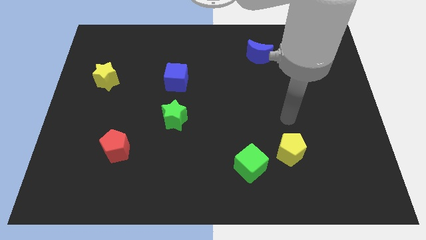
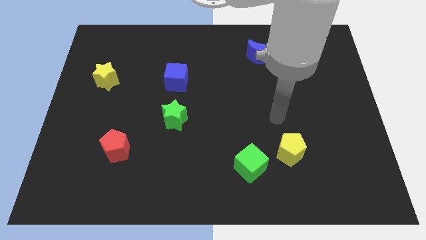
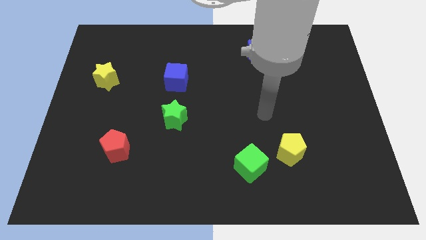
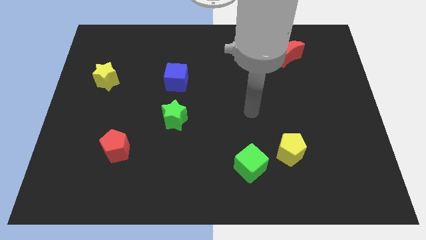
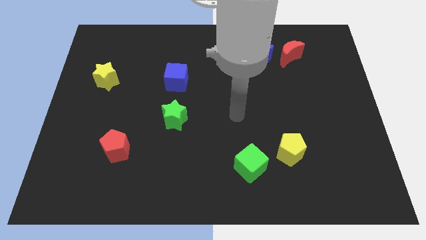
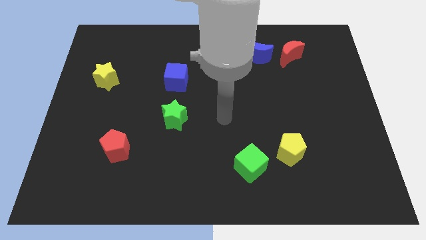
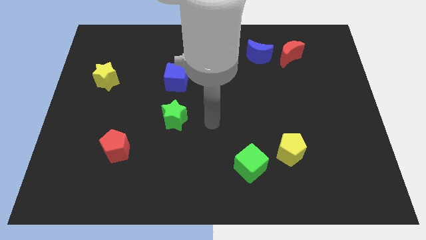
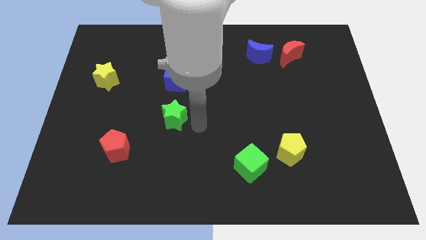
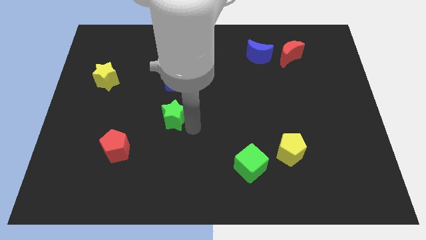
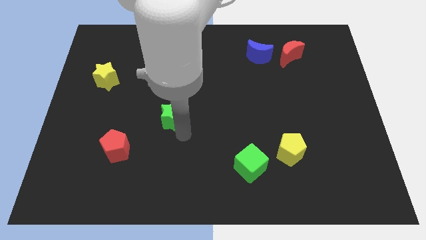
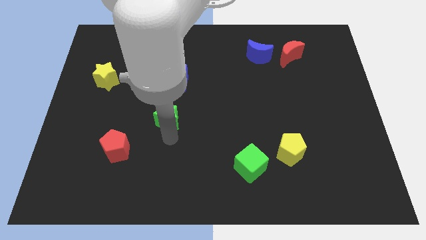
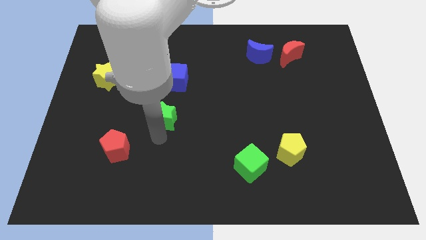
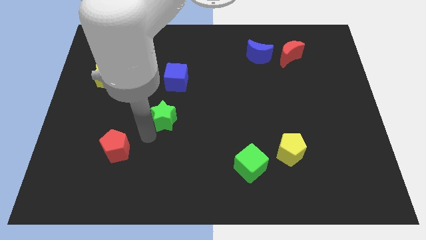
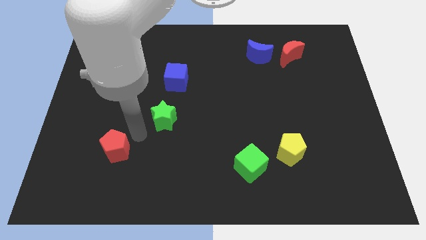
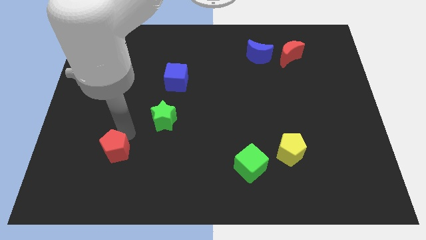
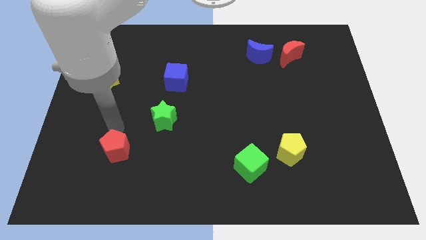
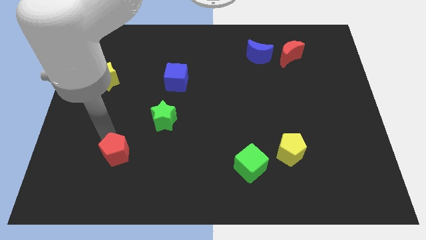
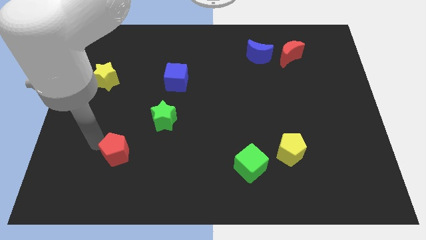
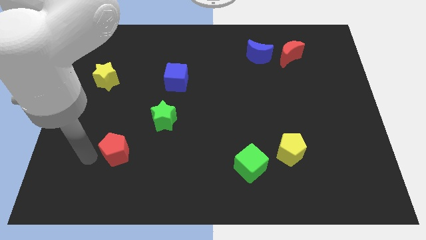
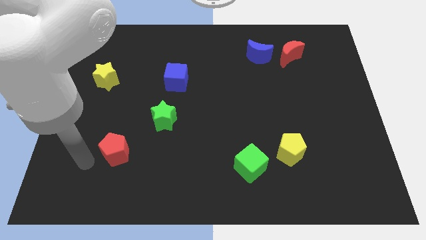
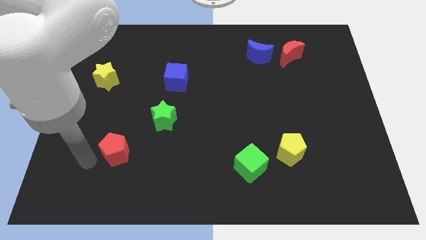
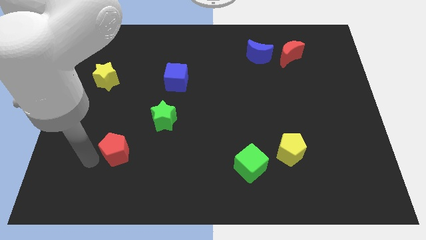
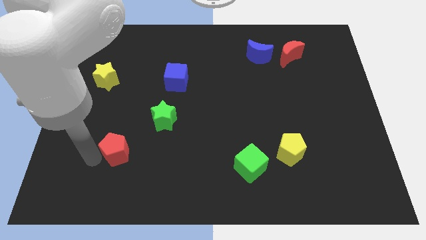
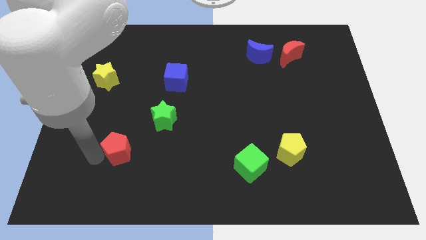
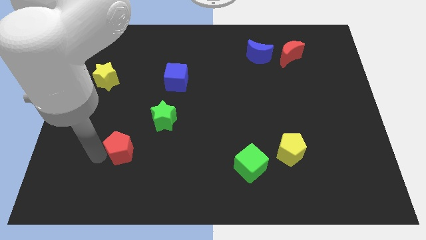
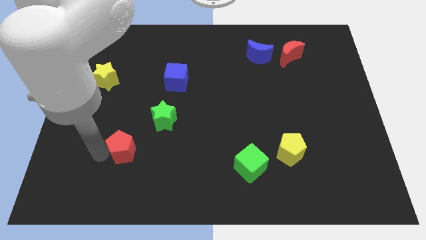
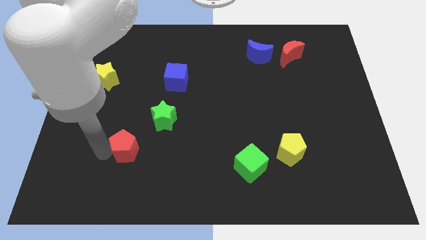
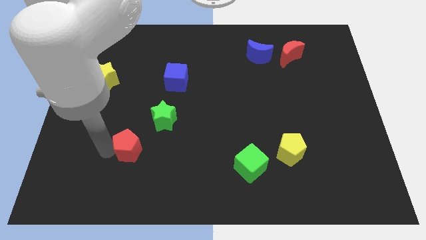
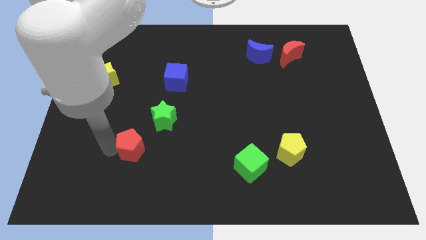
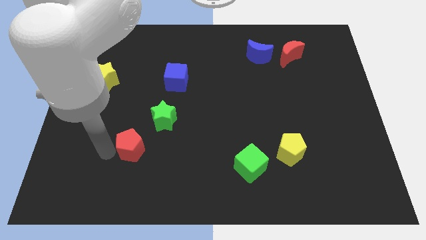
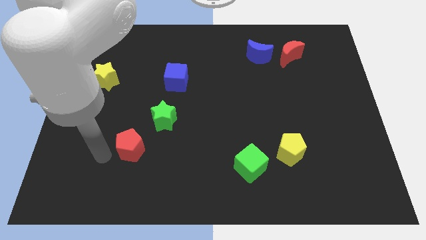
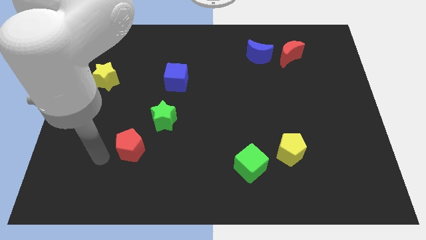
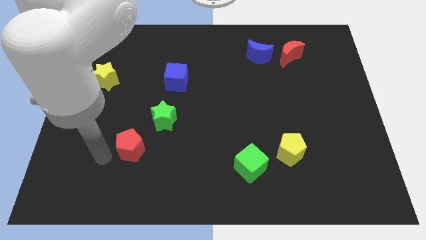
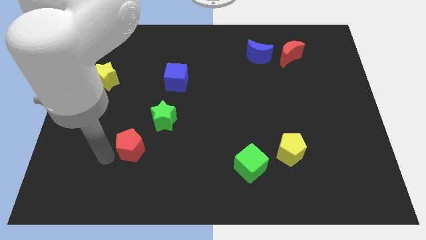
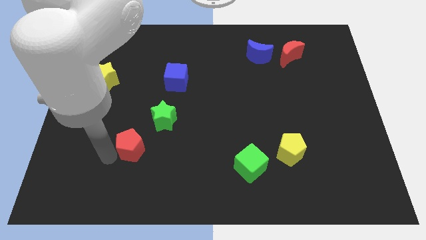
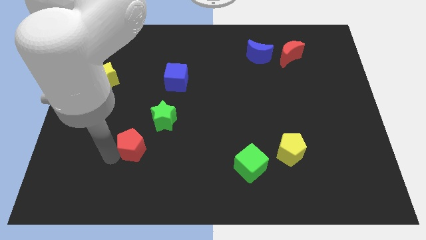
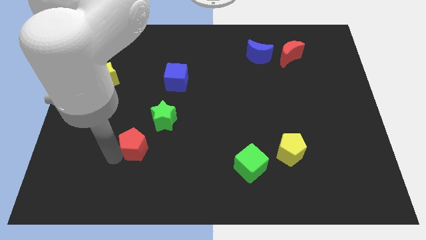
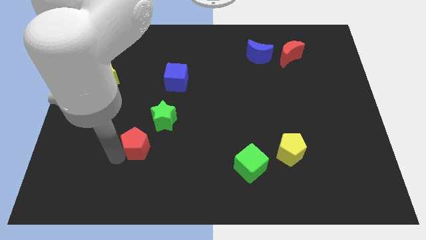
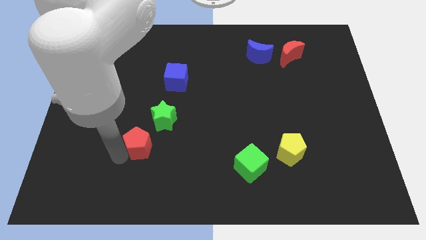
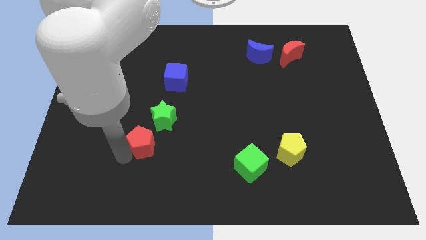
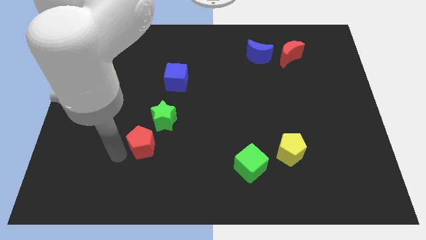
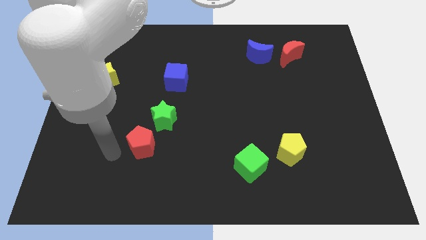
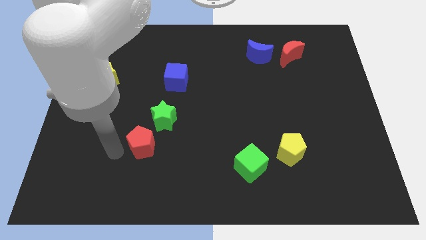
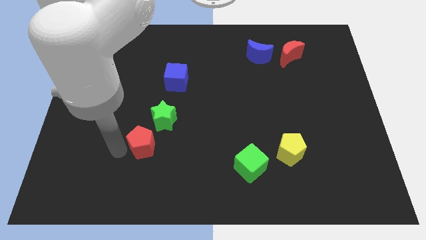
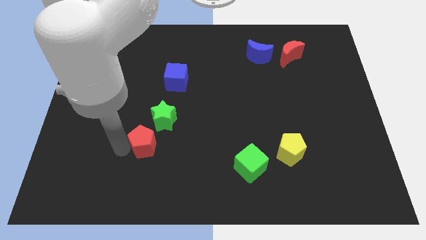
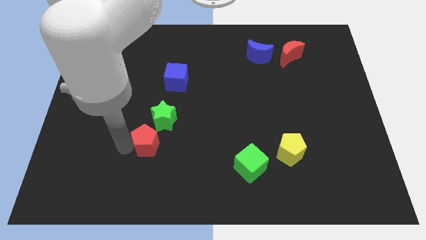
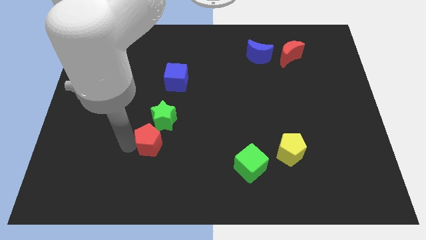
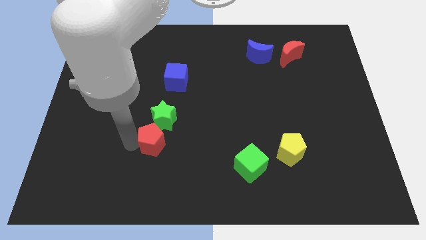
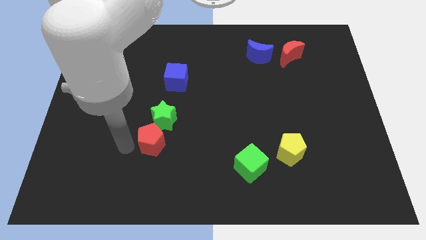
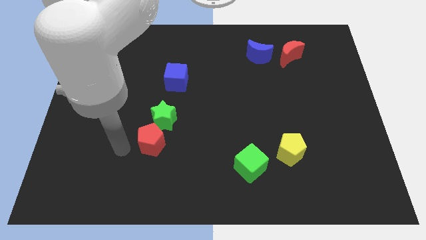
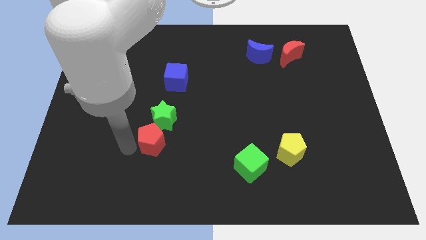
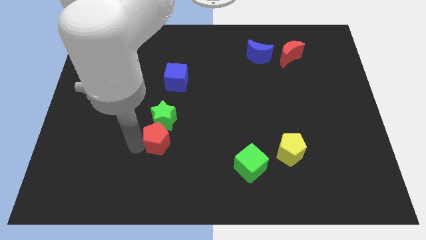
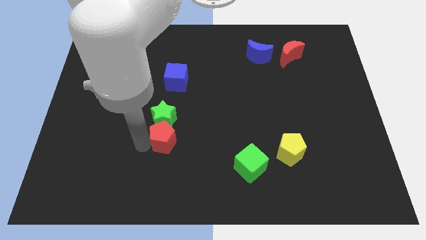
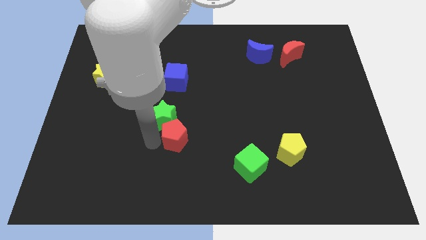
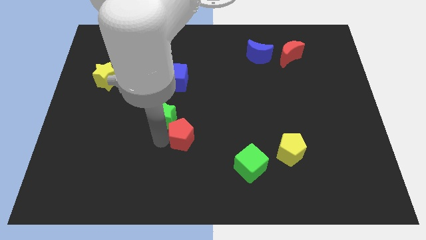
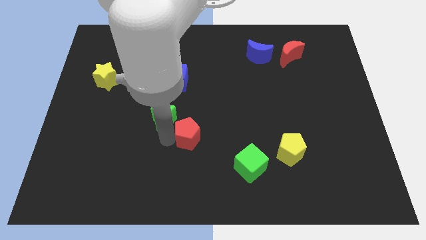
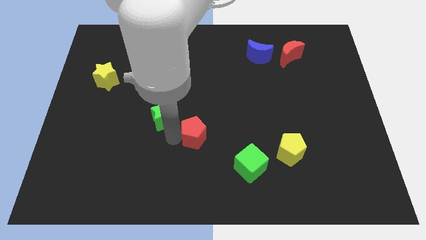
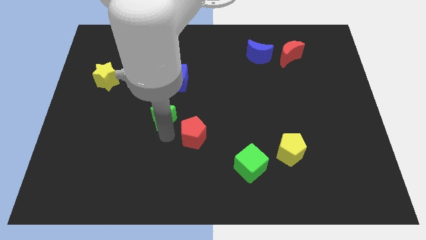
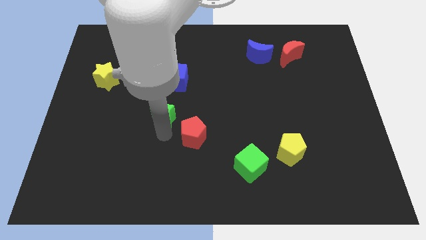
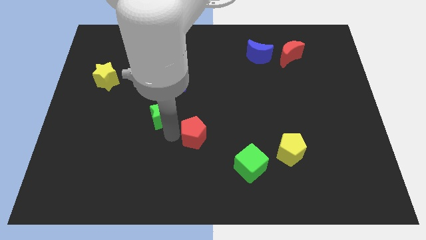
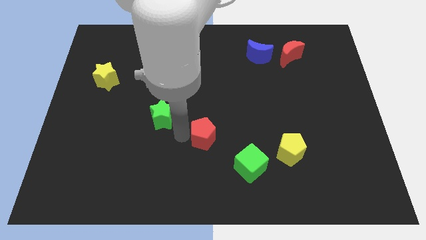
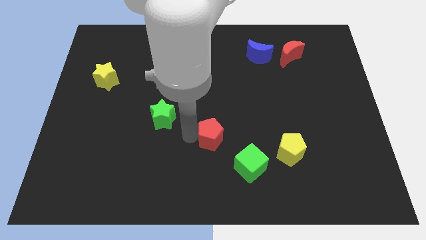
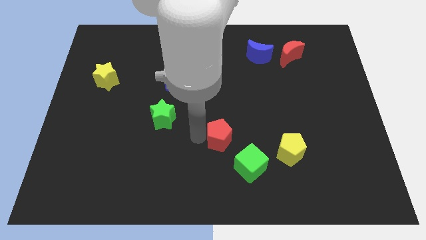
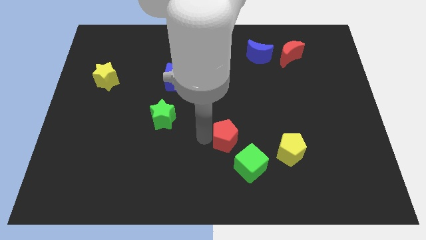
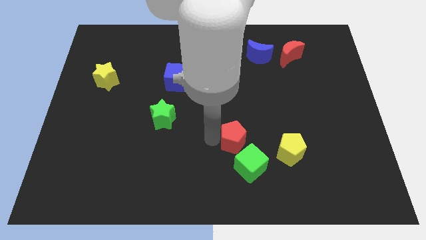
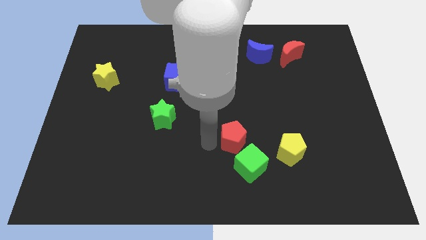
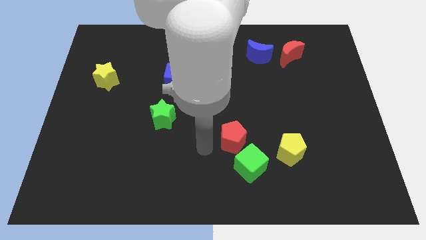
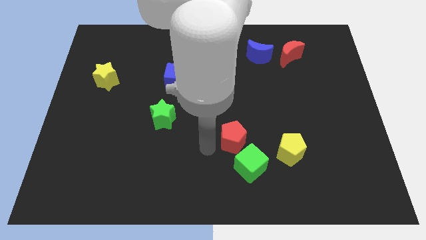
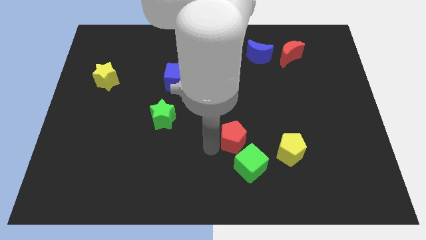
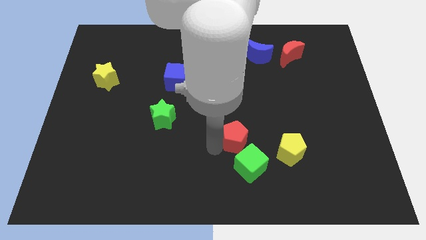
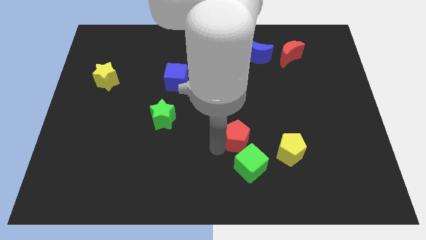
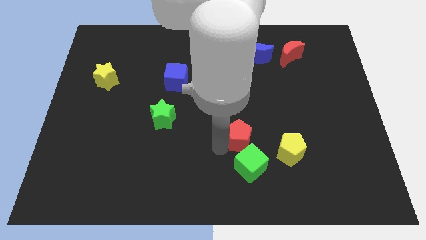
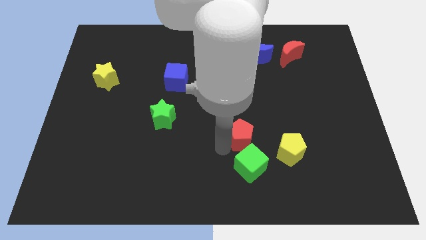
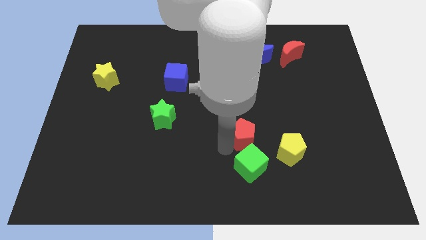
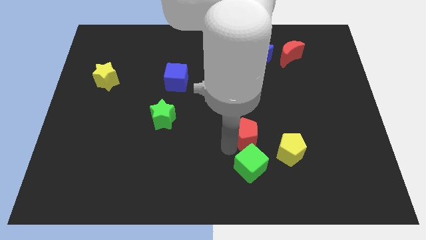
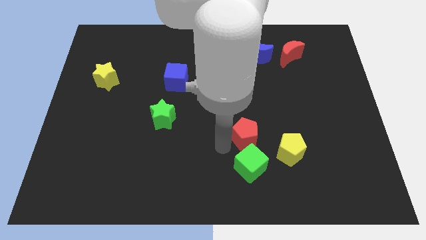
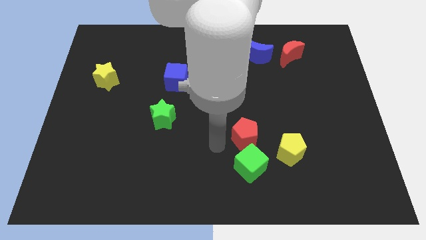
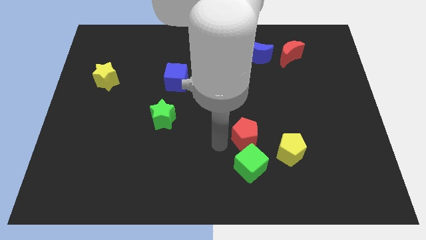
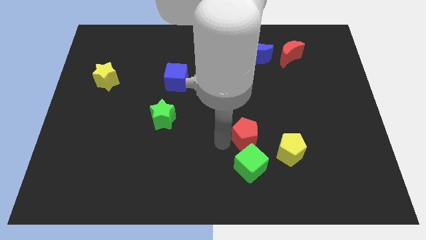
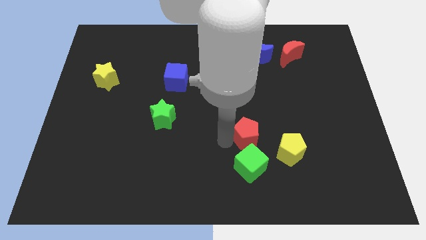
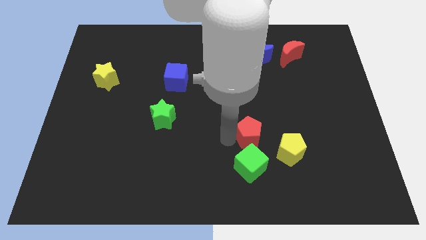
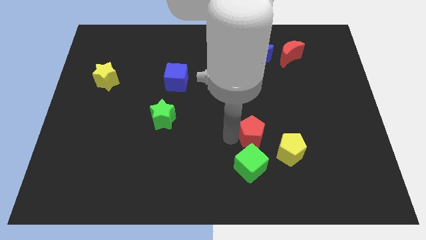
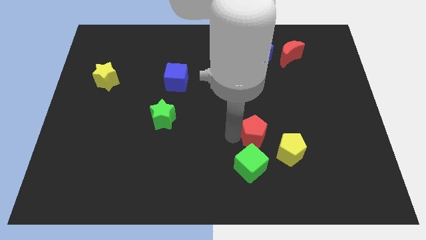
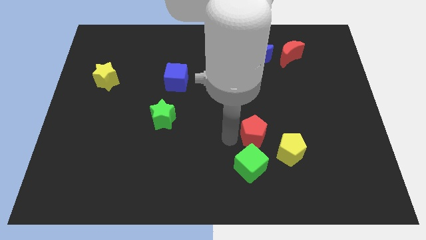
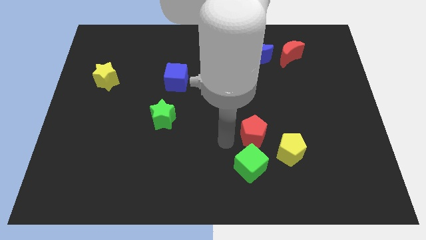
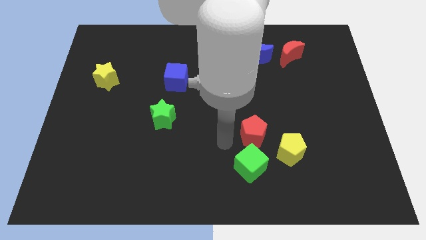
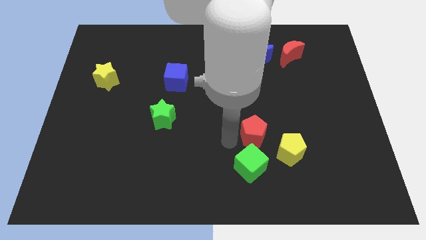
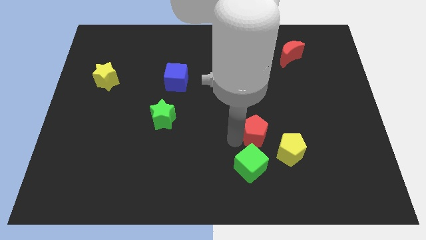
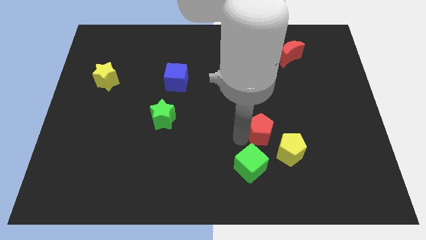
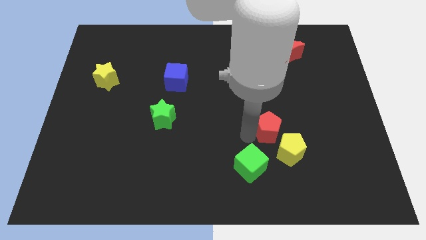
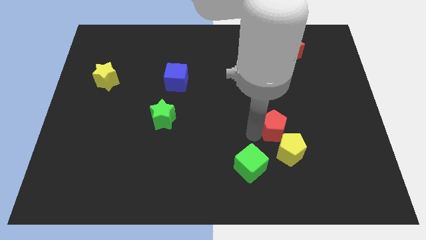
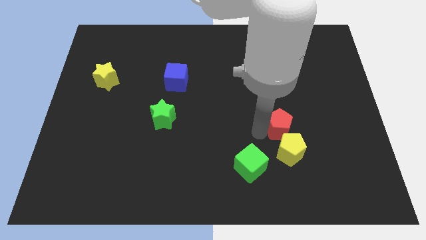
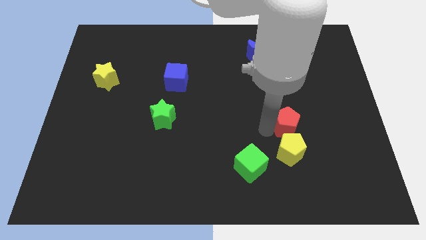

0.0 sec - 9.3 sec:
push the red pentagon diagonally up and to the right of the yellow pentagon
